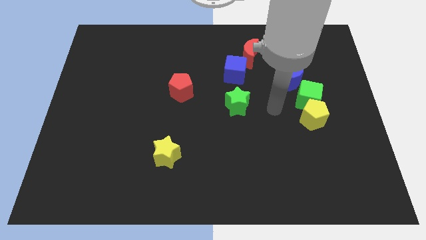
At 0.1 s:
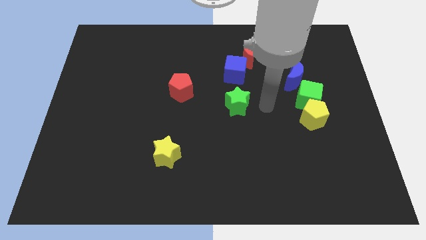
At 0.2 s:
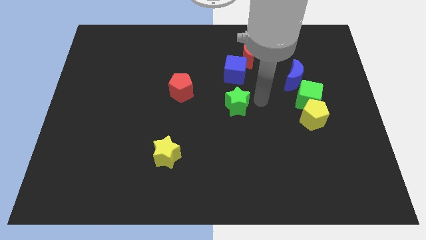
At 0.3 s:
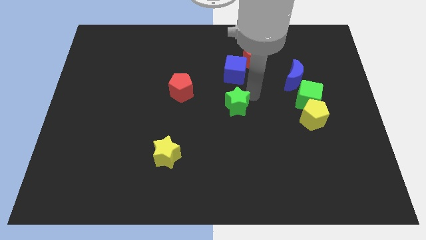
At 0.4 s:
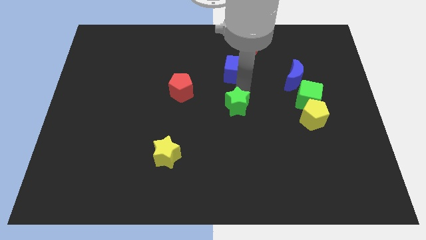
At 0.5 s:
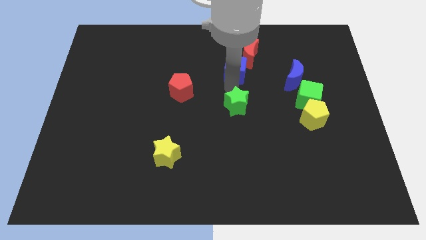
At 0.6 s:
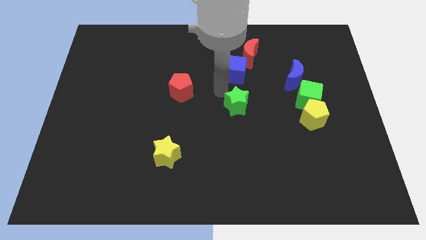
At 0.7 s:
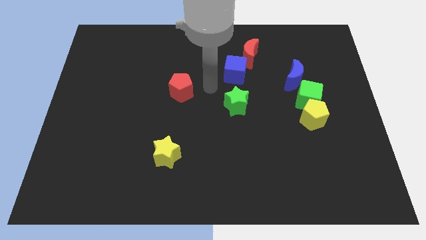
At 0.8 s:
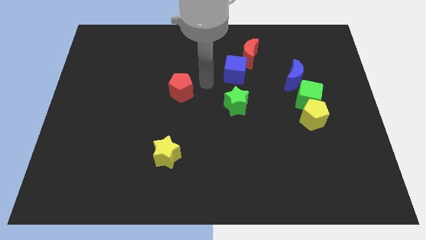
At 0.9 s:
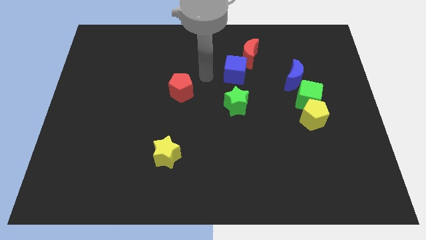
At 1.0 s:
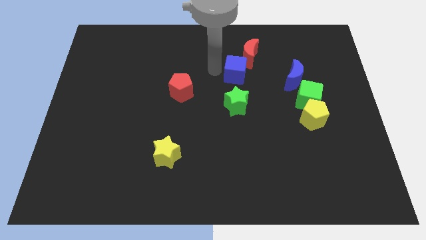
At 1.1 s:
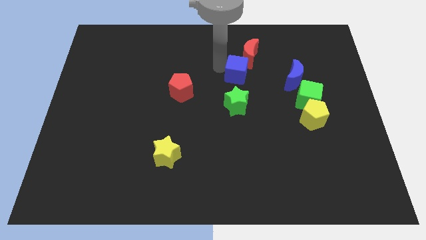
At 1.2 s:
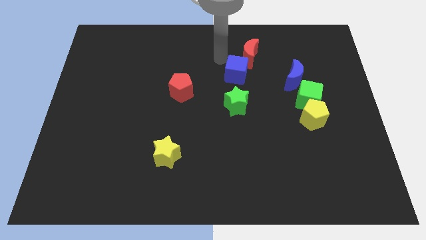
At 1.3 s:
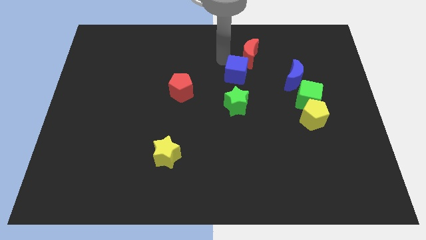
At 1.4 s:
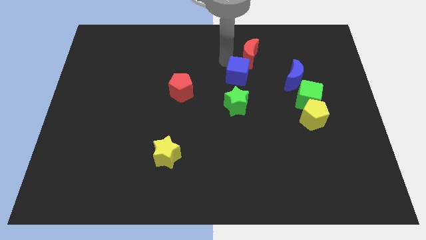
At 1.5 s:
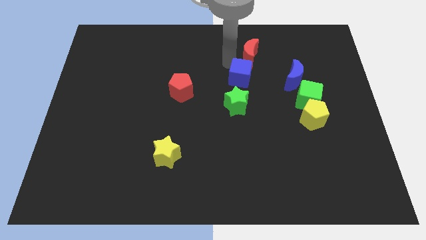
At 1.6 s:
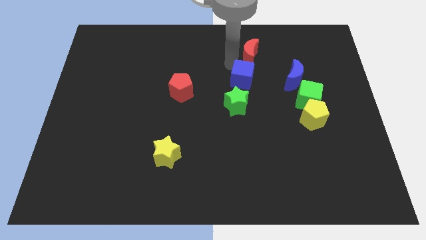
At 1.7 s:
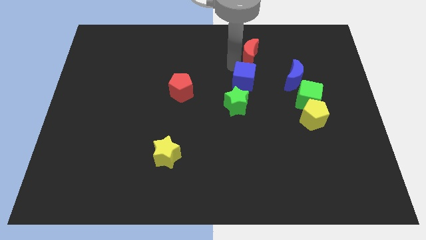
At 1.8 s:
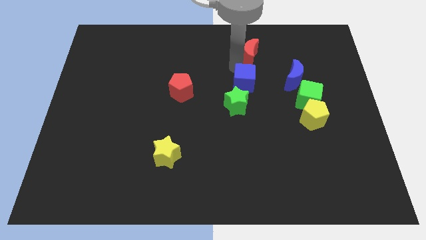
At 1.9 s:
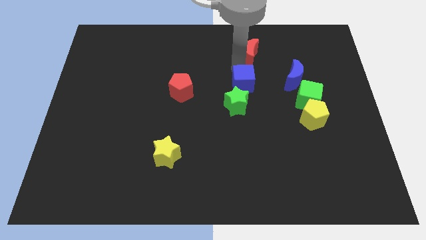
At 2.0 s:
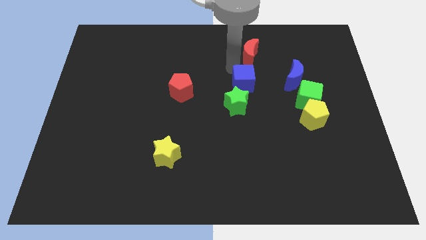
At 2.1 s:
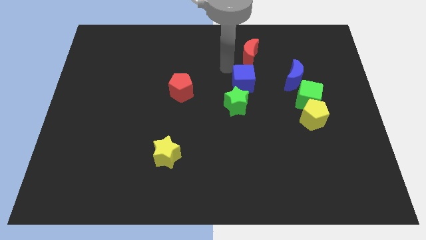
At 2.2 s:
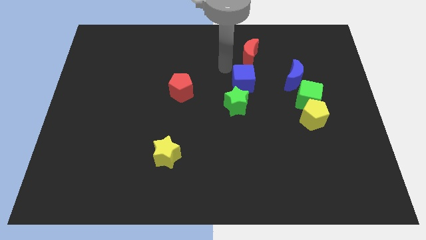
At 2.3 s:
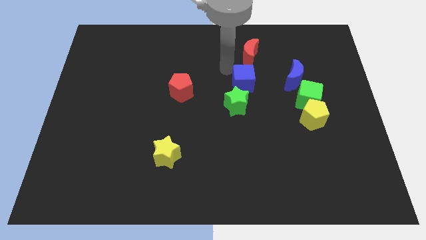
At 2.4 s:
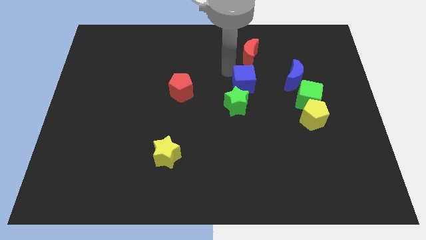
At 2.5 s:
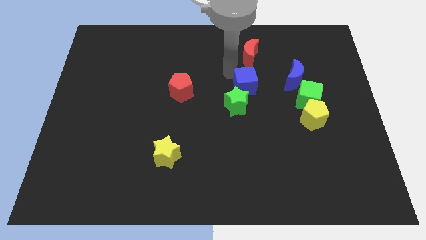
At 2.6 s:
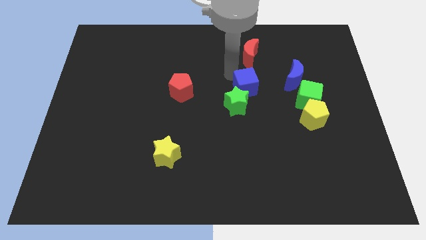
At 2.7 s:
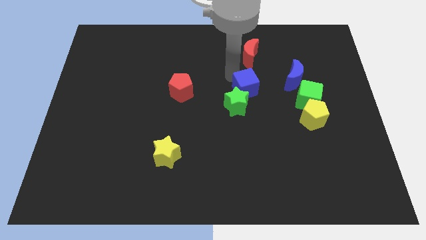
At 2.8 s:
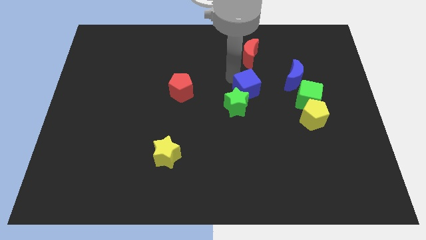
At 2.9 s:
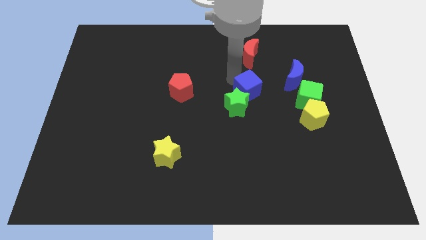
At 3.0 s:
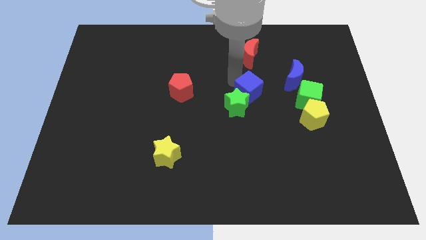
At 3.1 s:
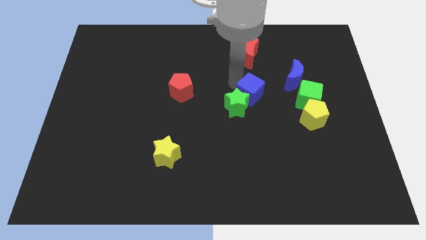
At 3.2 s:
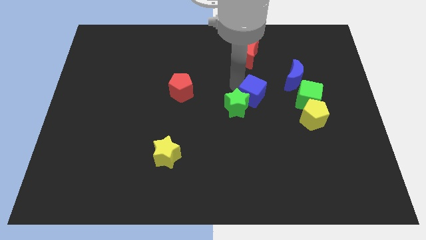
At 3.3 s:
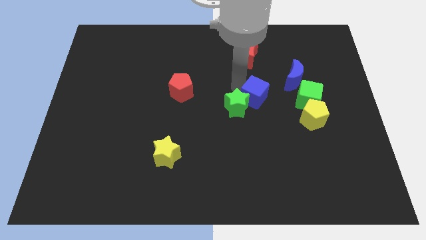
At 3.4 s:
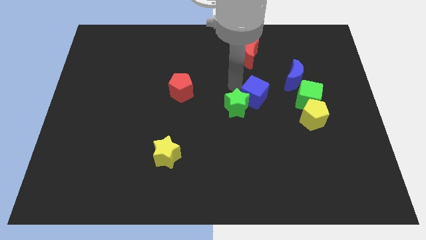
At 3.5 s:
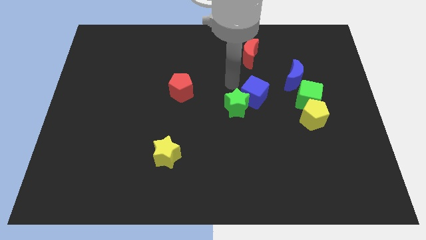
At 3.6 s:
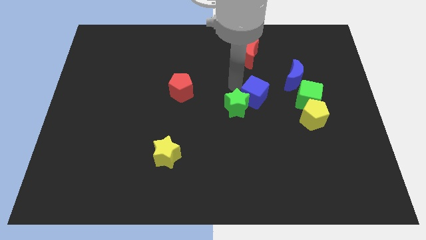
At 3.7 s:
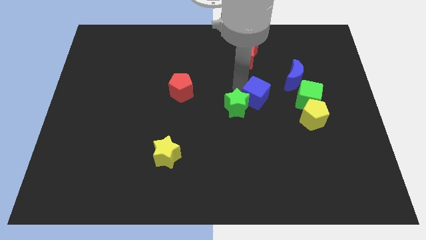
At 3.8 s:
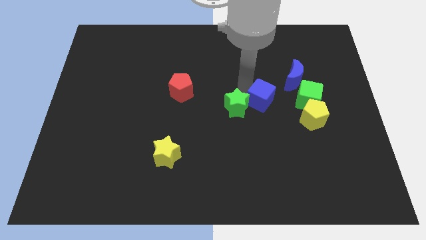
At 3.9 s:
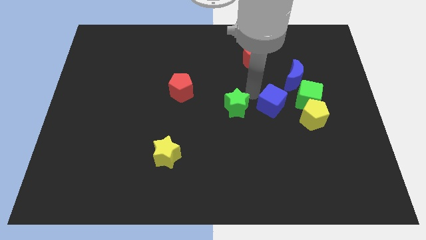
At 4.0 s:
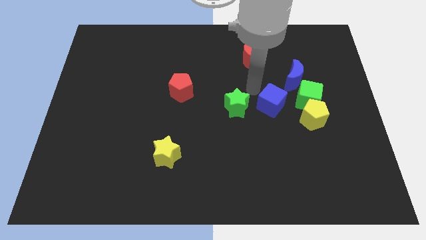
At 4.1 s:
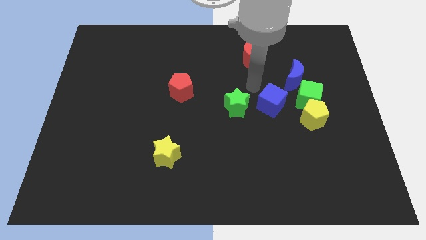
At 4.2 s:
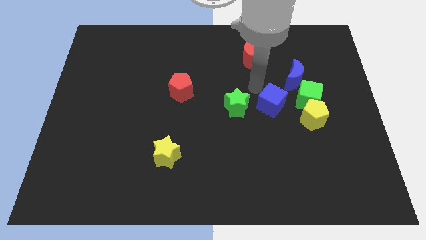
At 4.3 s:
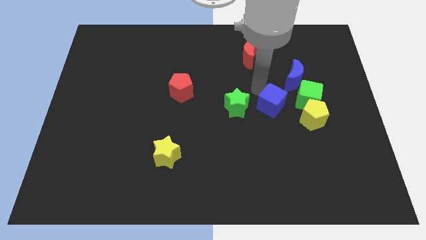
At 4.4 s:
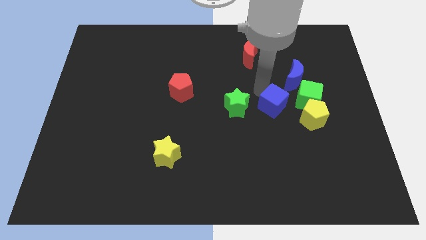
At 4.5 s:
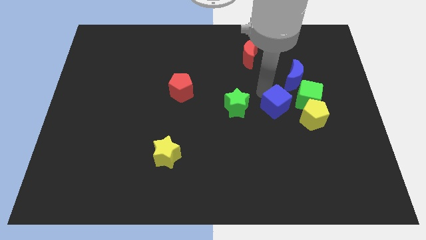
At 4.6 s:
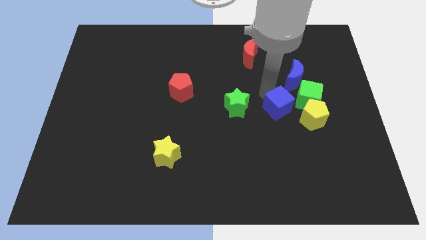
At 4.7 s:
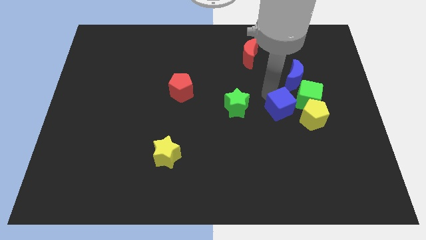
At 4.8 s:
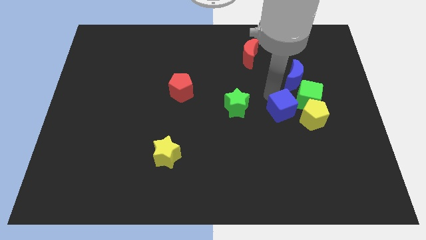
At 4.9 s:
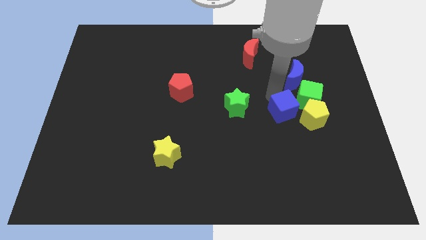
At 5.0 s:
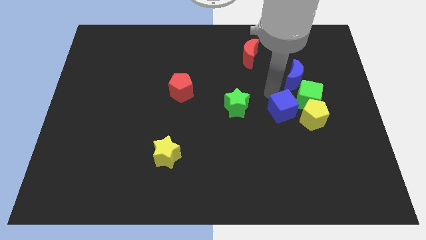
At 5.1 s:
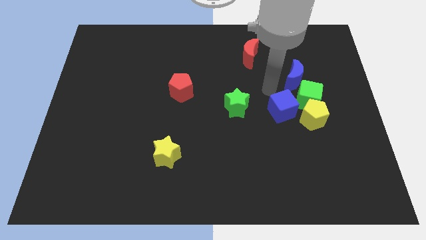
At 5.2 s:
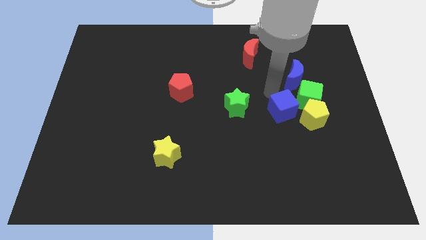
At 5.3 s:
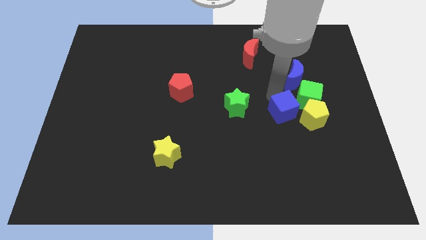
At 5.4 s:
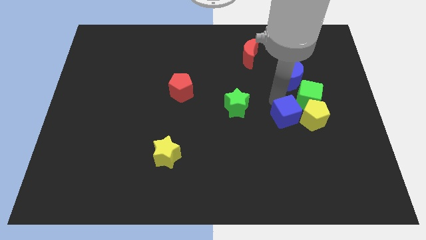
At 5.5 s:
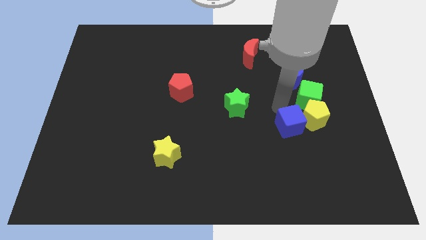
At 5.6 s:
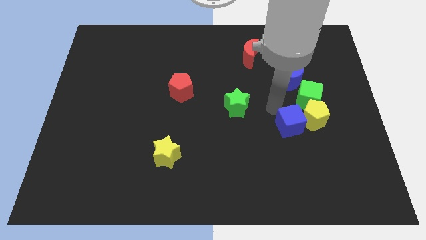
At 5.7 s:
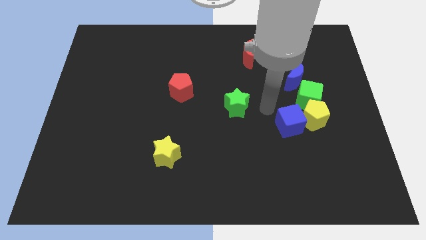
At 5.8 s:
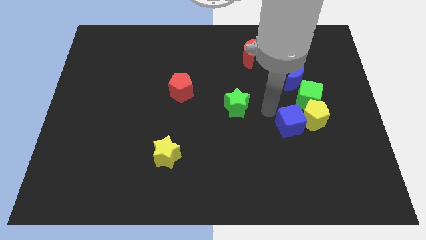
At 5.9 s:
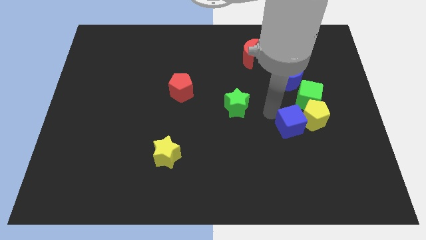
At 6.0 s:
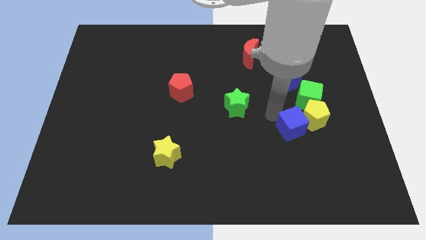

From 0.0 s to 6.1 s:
move the blue cube downwards and to the right diagonally

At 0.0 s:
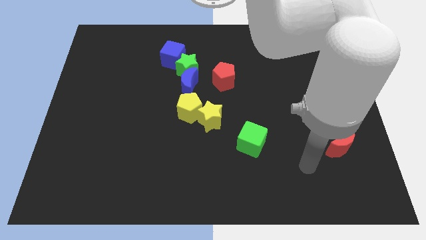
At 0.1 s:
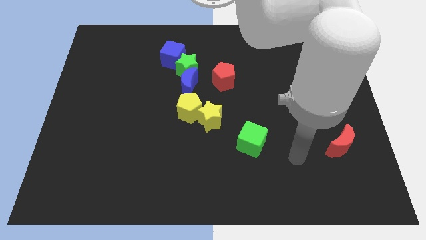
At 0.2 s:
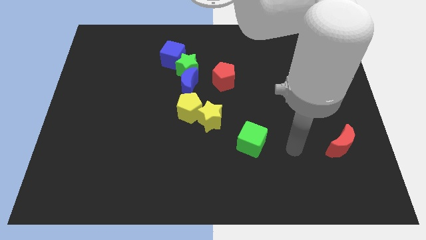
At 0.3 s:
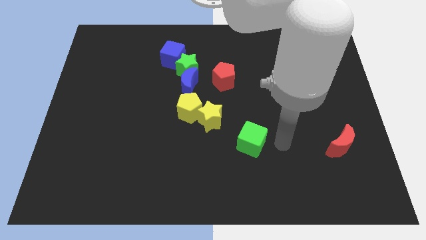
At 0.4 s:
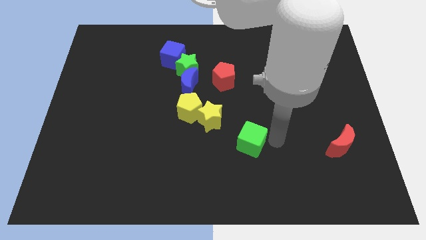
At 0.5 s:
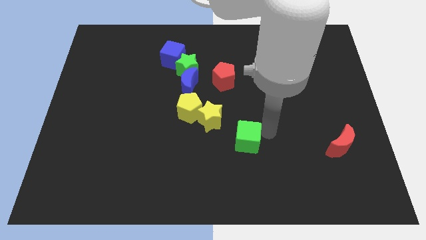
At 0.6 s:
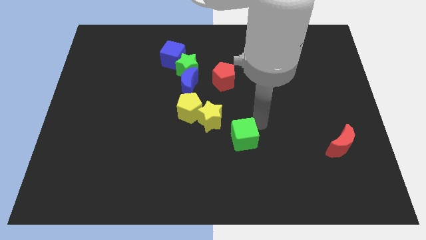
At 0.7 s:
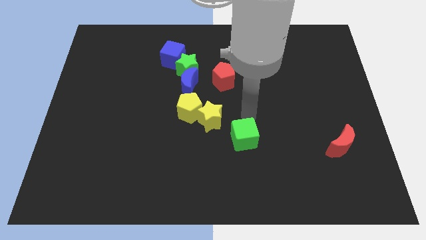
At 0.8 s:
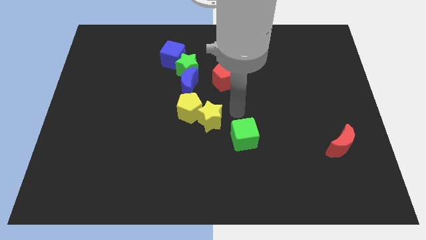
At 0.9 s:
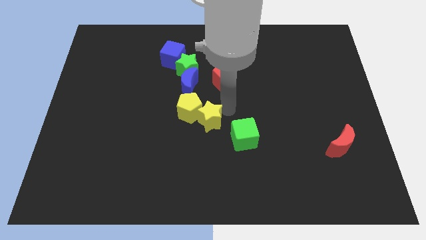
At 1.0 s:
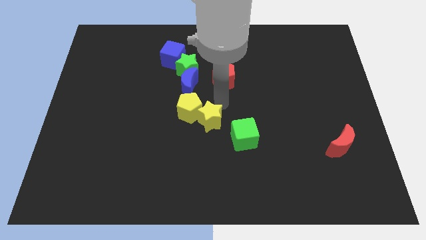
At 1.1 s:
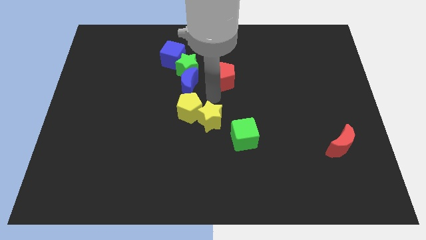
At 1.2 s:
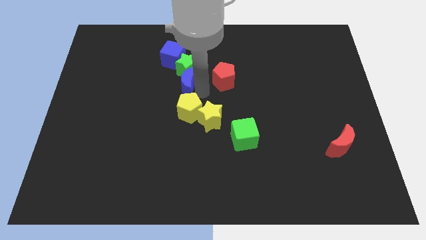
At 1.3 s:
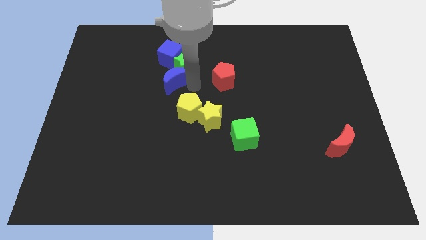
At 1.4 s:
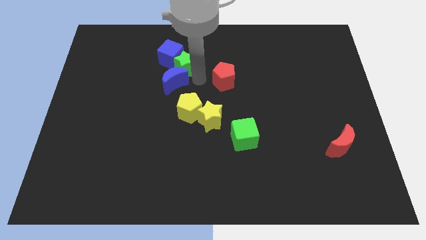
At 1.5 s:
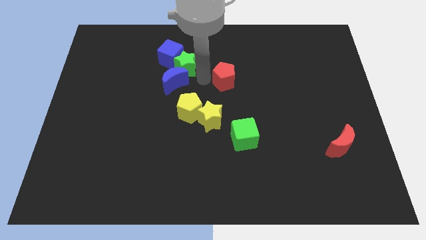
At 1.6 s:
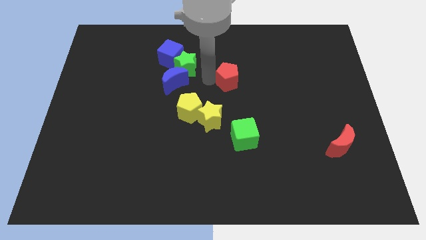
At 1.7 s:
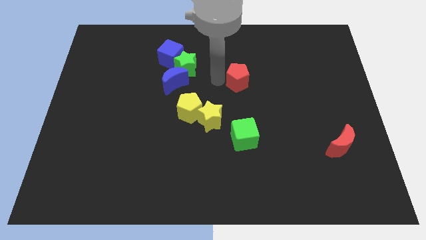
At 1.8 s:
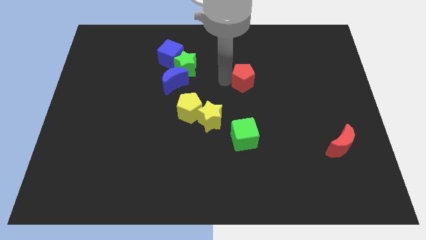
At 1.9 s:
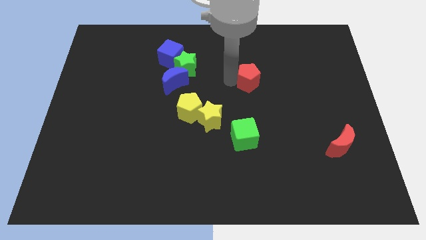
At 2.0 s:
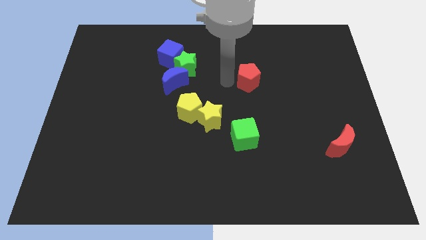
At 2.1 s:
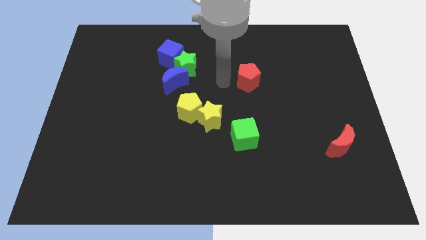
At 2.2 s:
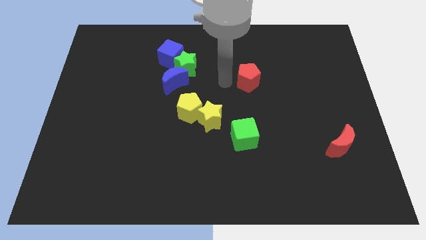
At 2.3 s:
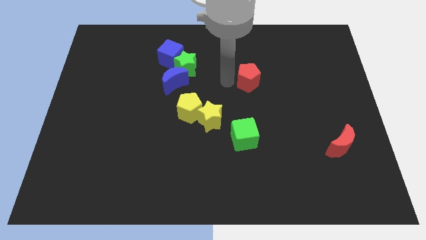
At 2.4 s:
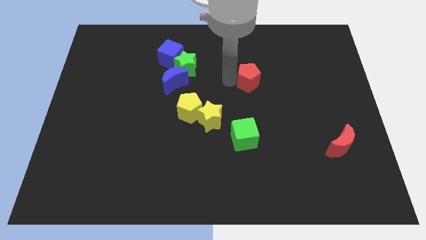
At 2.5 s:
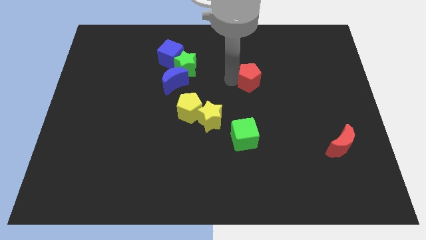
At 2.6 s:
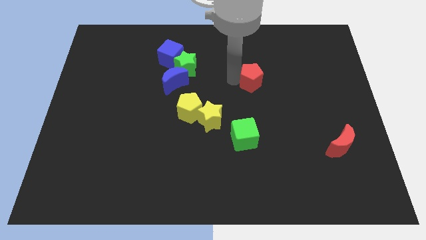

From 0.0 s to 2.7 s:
slightly slide the red pentagon to the right
